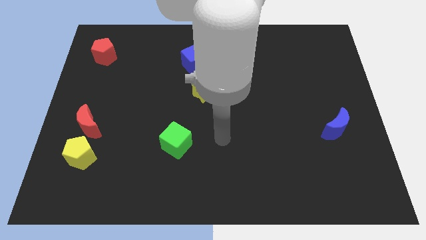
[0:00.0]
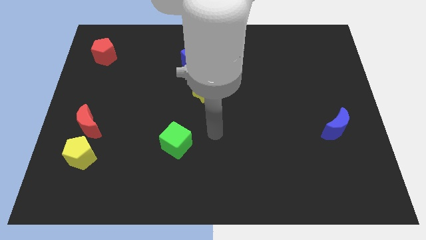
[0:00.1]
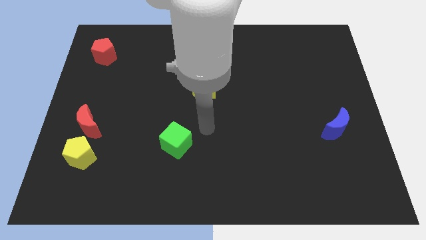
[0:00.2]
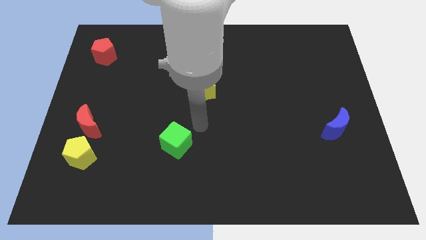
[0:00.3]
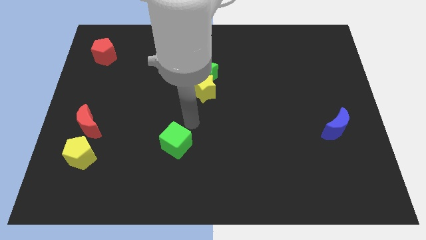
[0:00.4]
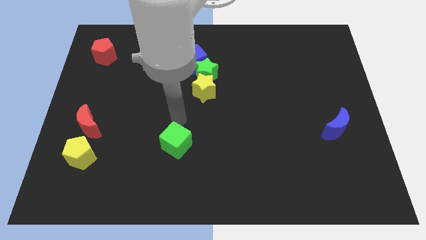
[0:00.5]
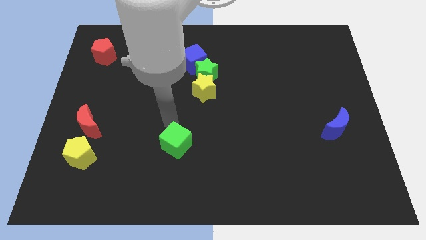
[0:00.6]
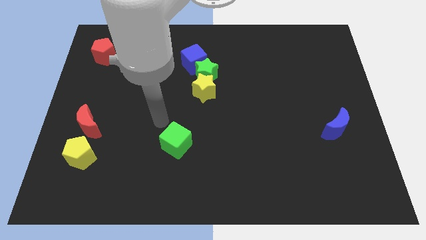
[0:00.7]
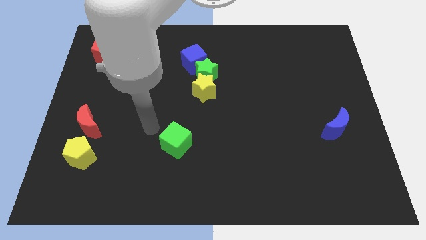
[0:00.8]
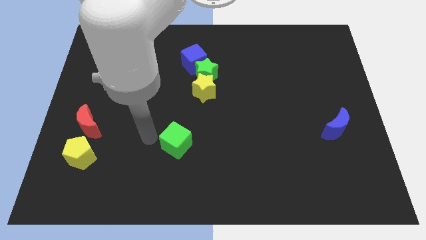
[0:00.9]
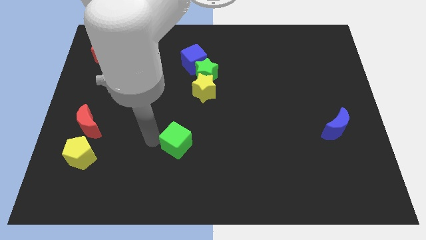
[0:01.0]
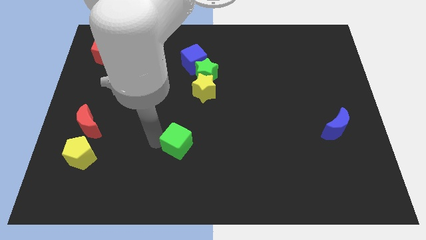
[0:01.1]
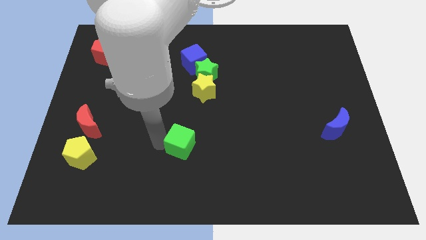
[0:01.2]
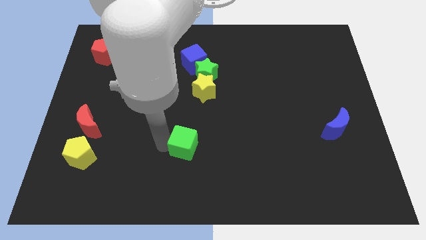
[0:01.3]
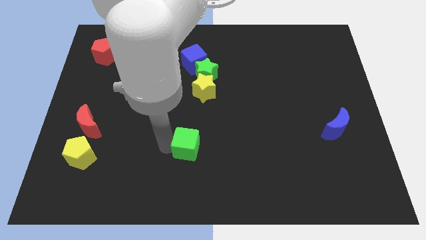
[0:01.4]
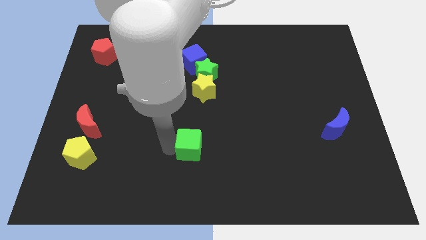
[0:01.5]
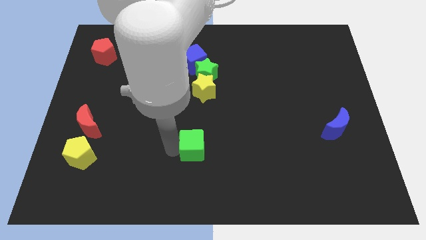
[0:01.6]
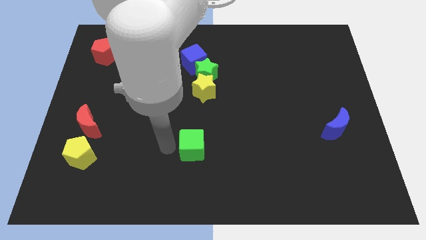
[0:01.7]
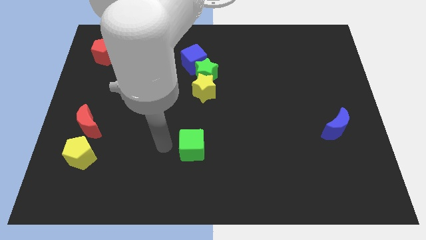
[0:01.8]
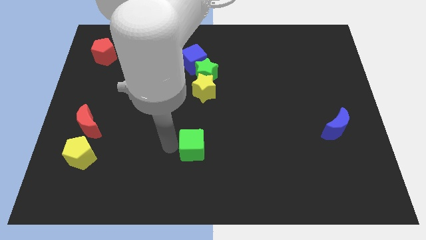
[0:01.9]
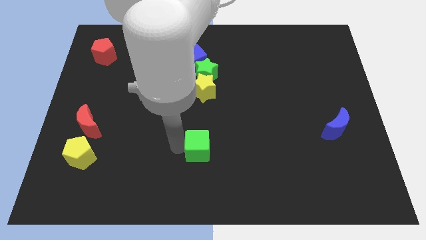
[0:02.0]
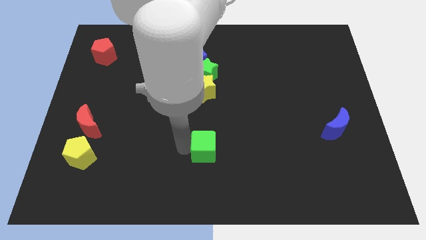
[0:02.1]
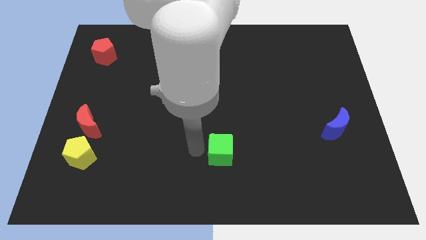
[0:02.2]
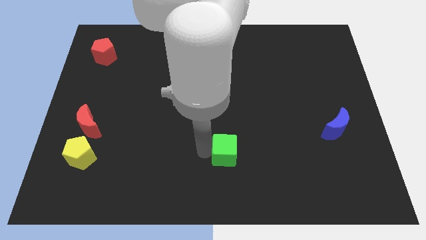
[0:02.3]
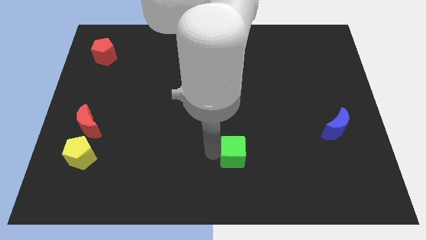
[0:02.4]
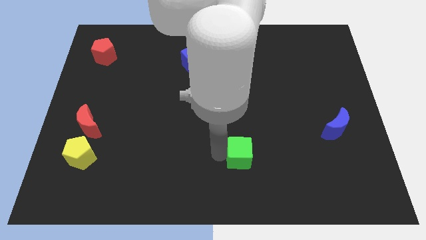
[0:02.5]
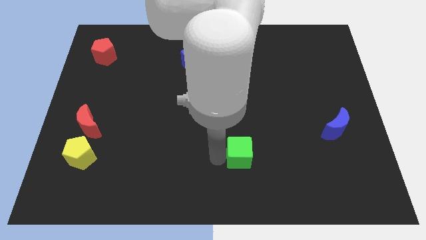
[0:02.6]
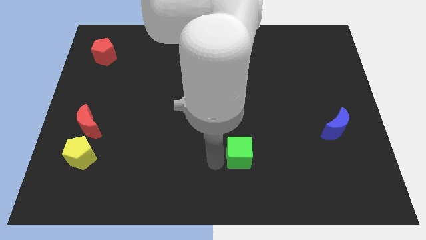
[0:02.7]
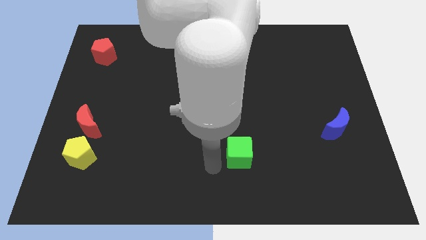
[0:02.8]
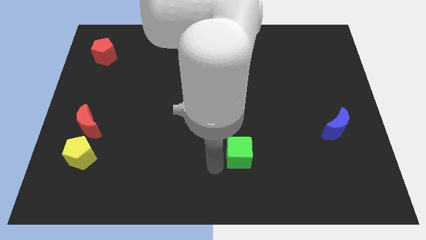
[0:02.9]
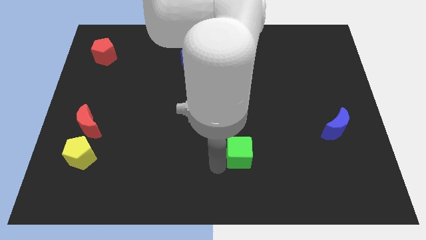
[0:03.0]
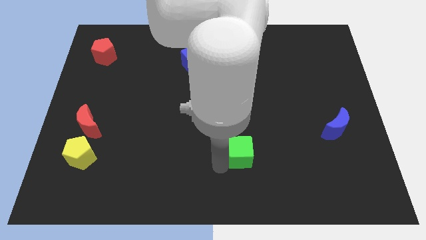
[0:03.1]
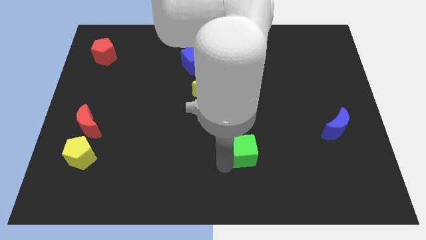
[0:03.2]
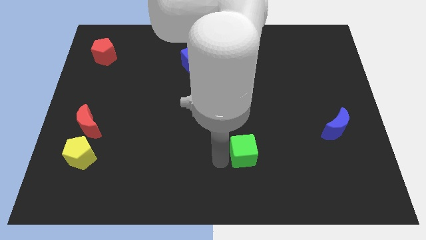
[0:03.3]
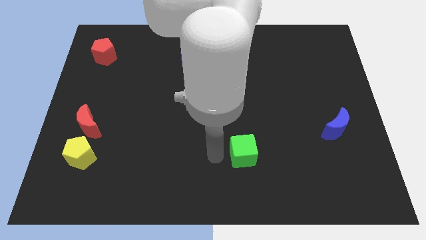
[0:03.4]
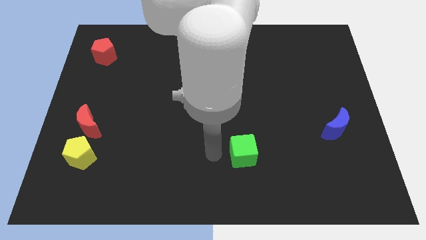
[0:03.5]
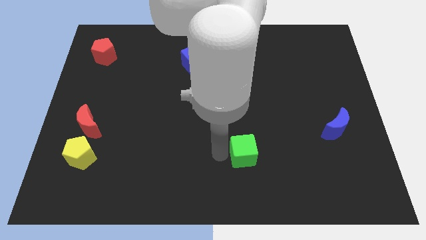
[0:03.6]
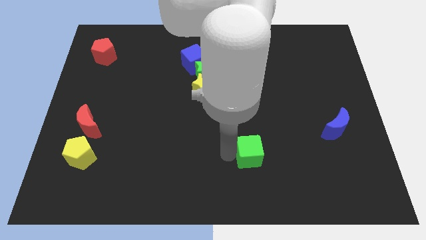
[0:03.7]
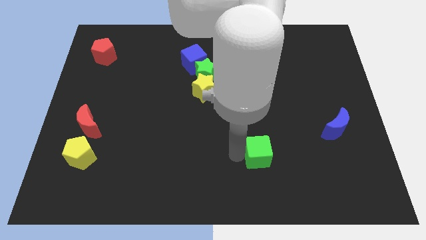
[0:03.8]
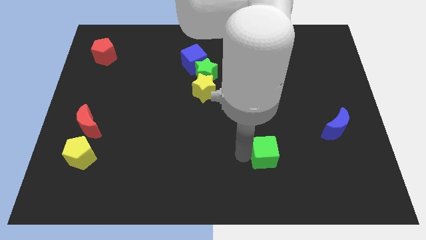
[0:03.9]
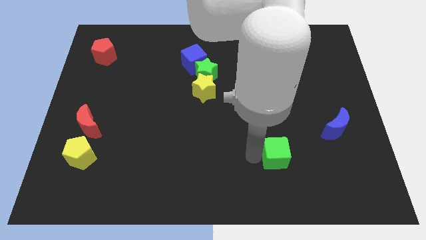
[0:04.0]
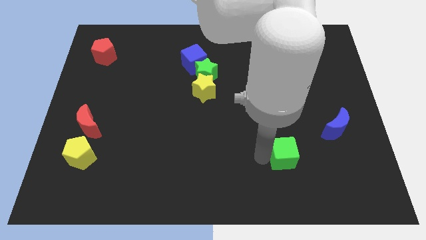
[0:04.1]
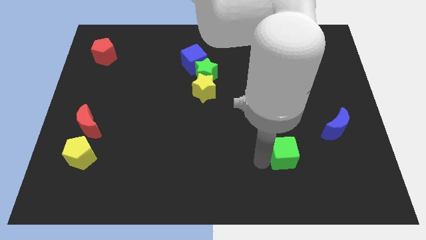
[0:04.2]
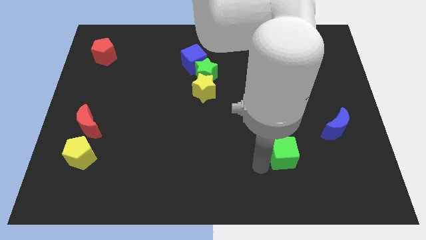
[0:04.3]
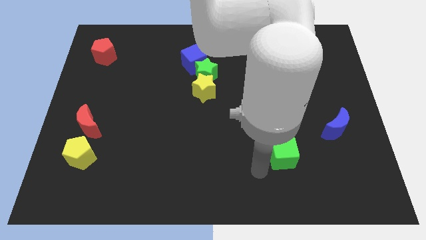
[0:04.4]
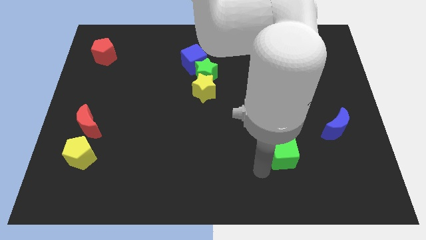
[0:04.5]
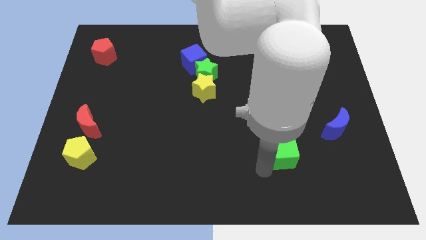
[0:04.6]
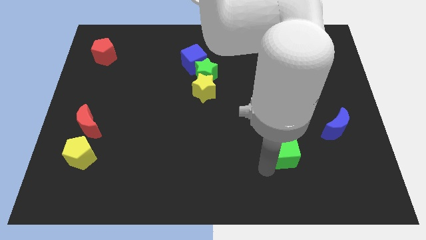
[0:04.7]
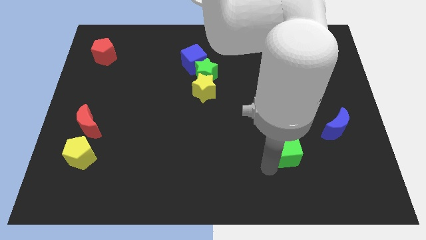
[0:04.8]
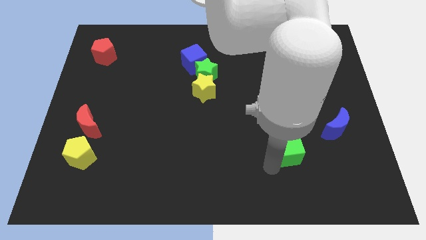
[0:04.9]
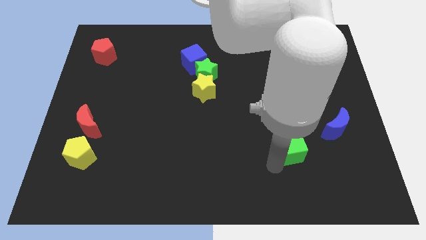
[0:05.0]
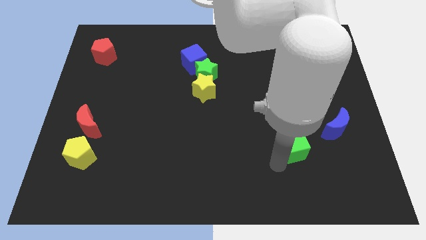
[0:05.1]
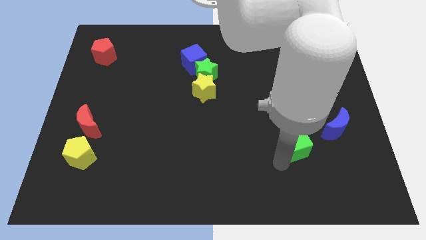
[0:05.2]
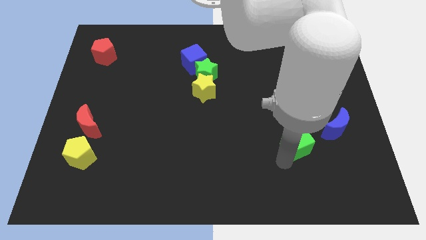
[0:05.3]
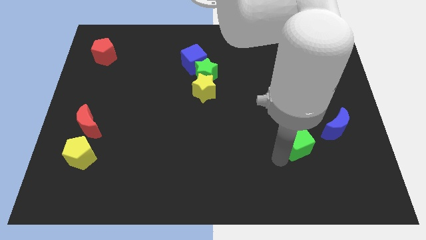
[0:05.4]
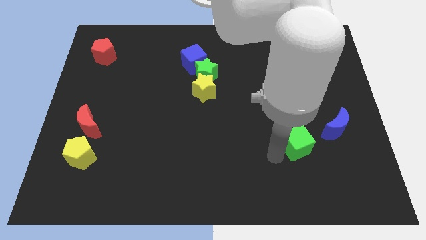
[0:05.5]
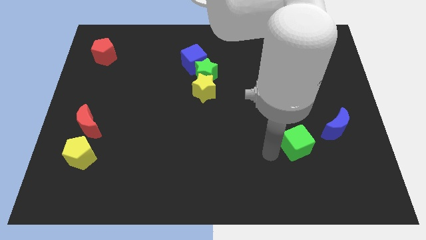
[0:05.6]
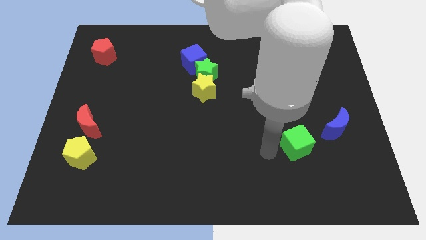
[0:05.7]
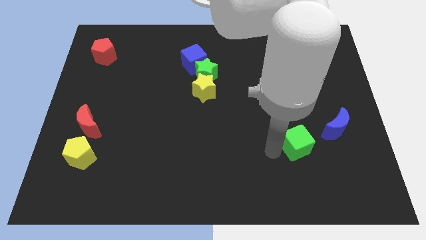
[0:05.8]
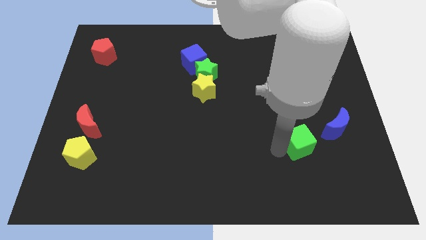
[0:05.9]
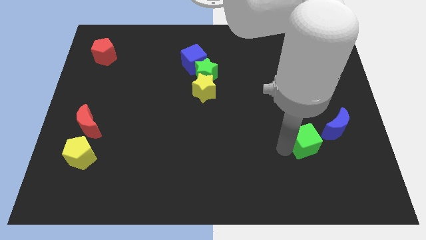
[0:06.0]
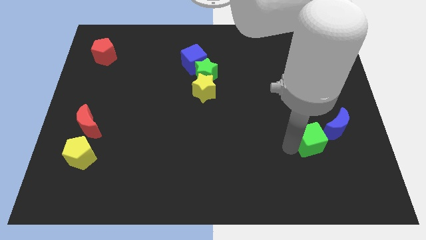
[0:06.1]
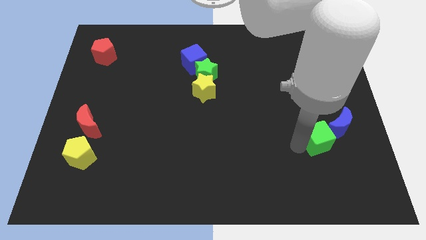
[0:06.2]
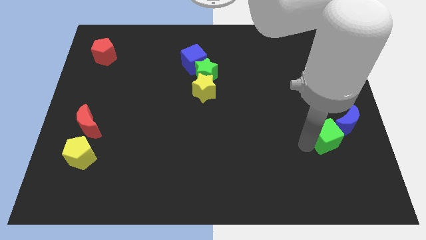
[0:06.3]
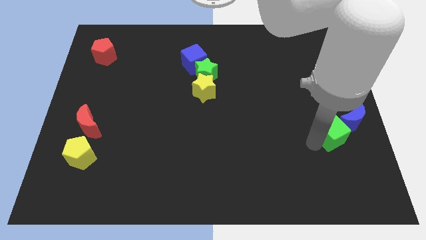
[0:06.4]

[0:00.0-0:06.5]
slide the green cube close to the blue moon
